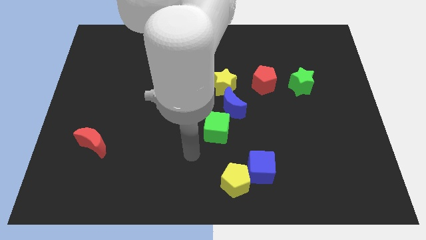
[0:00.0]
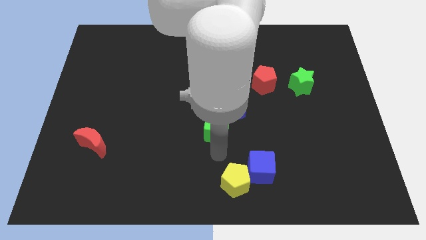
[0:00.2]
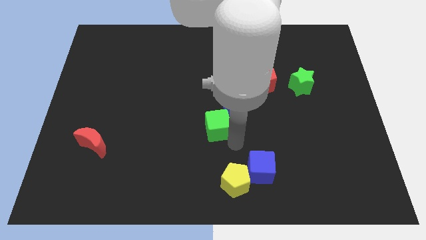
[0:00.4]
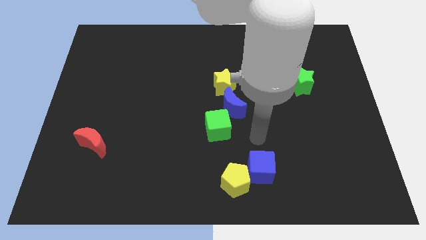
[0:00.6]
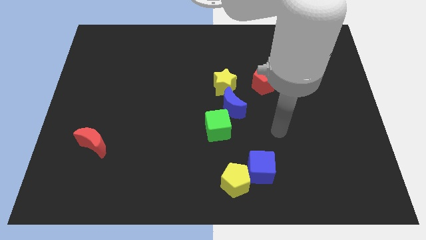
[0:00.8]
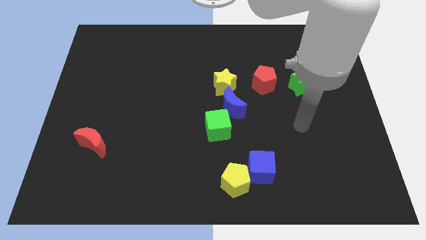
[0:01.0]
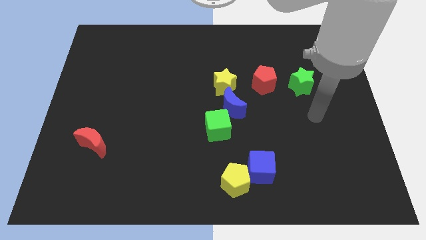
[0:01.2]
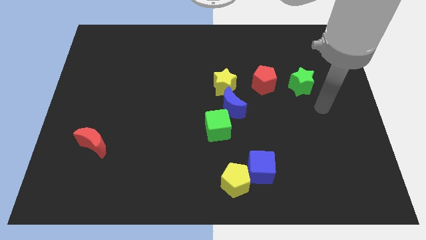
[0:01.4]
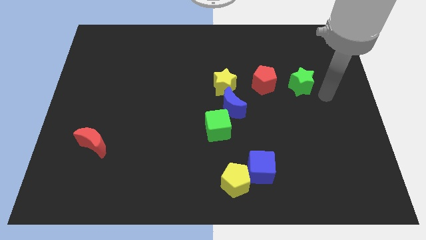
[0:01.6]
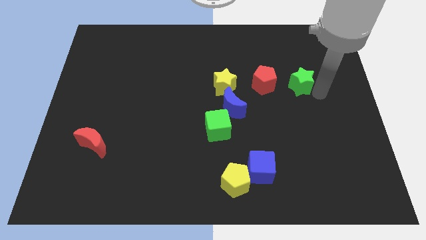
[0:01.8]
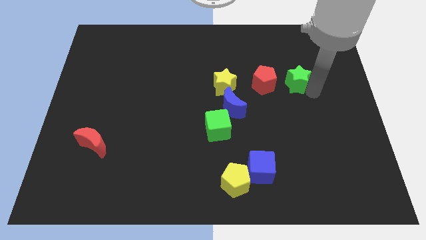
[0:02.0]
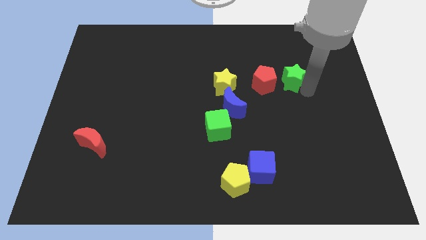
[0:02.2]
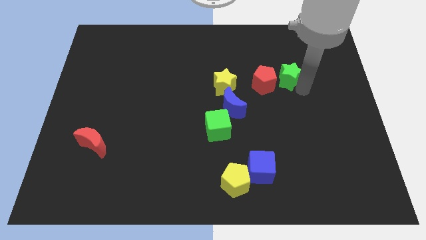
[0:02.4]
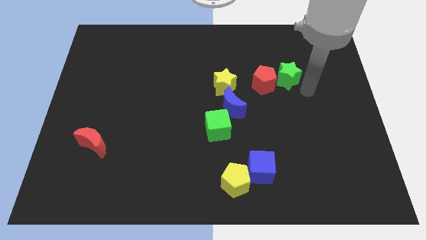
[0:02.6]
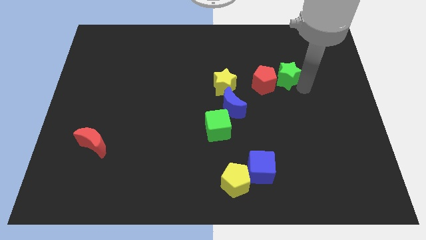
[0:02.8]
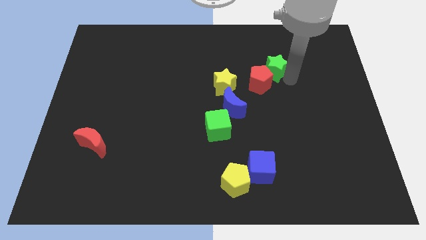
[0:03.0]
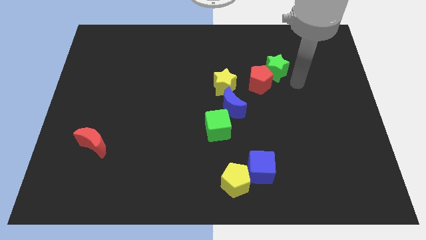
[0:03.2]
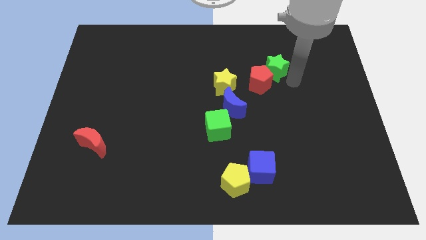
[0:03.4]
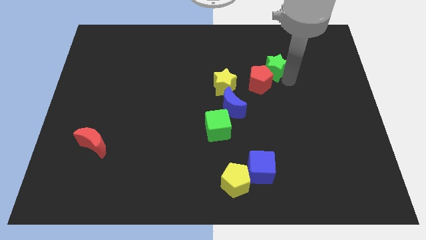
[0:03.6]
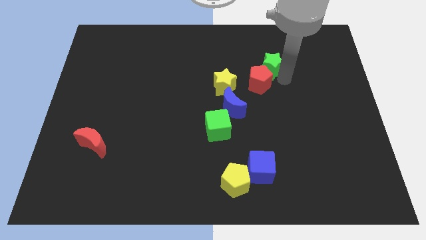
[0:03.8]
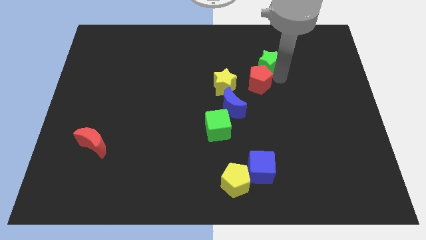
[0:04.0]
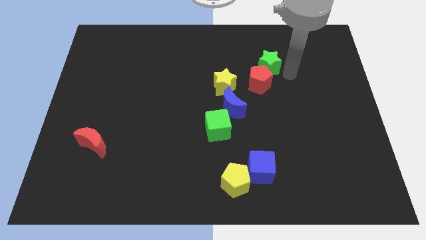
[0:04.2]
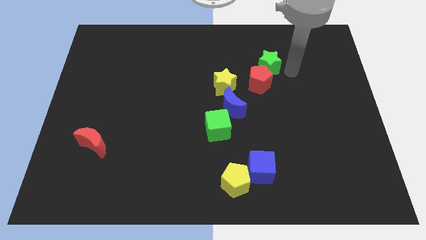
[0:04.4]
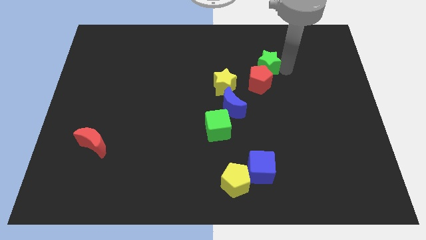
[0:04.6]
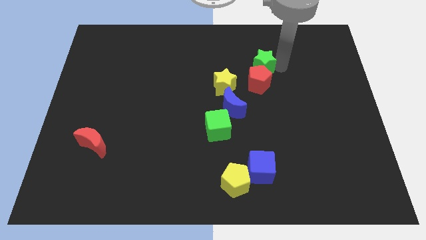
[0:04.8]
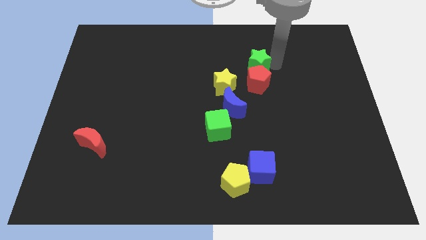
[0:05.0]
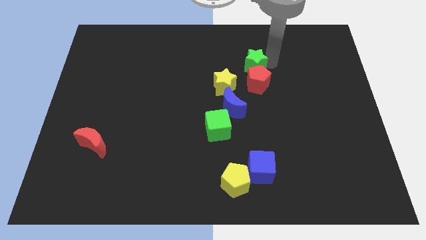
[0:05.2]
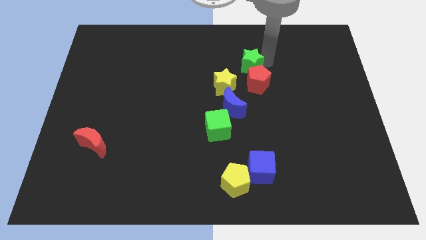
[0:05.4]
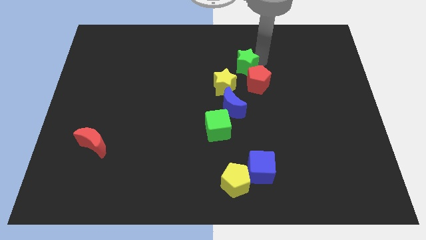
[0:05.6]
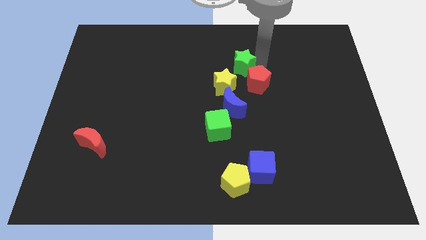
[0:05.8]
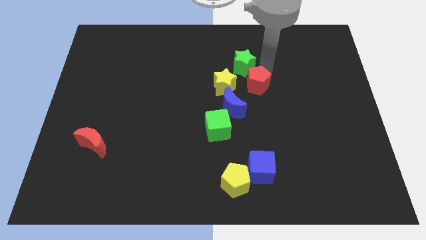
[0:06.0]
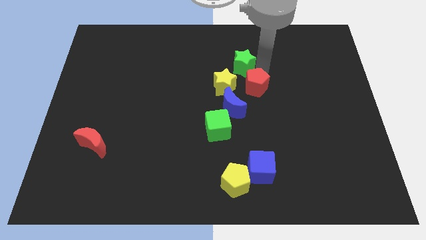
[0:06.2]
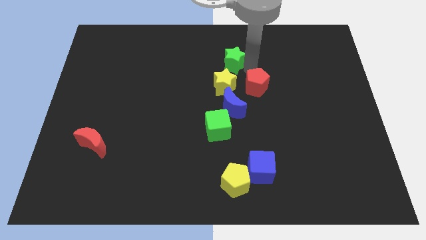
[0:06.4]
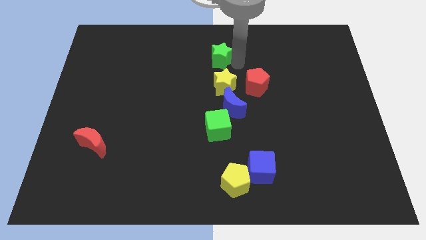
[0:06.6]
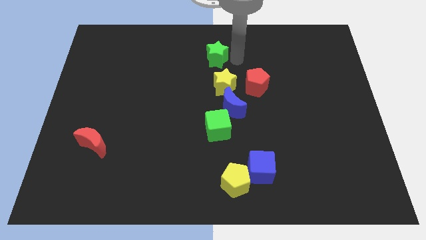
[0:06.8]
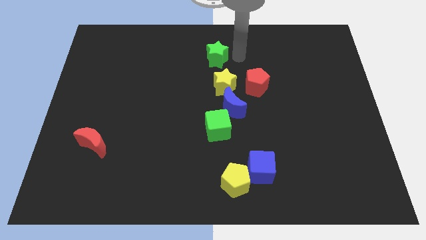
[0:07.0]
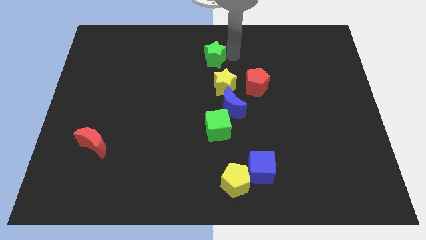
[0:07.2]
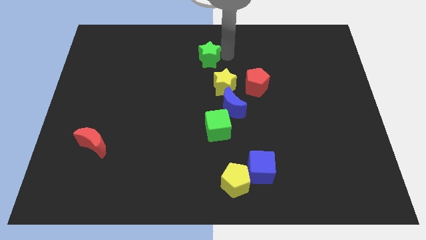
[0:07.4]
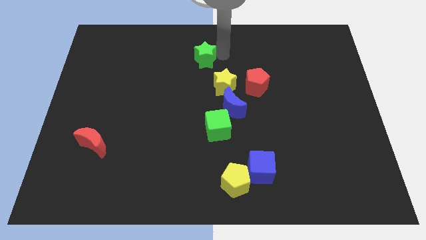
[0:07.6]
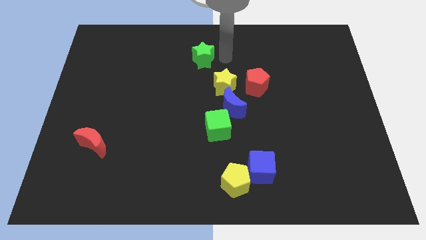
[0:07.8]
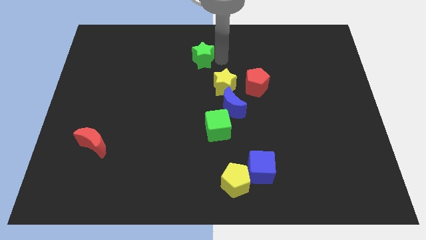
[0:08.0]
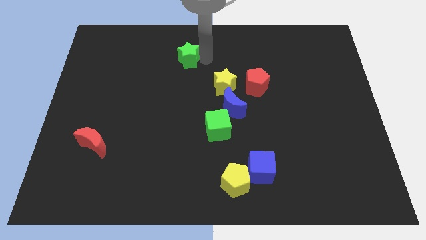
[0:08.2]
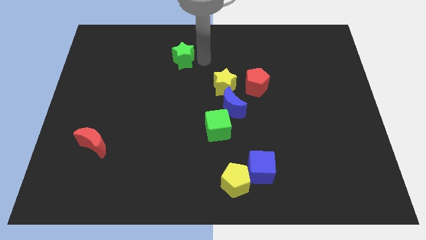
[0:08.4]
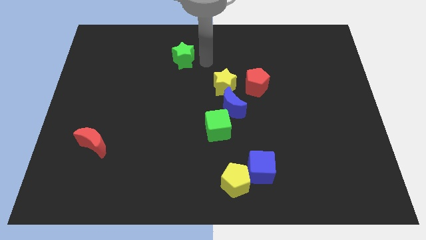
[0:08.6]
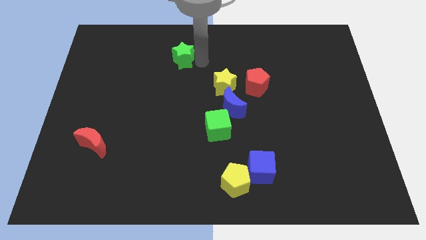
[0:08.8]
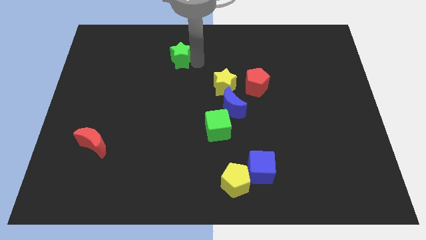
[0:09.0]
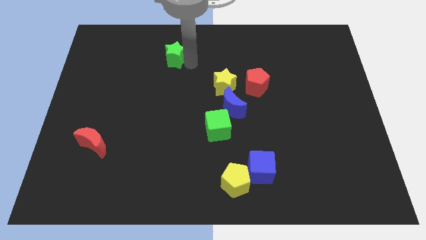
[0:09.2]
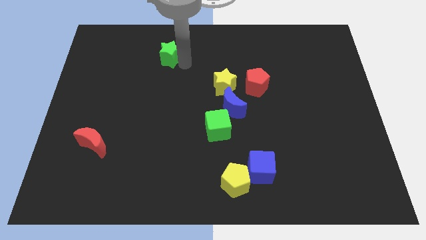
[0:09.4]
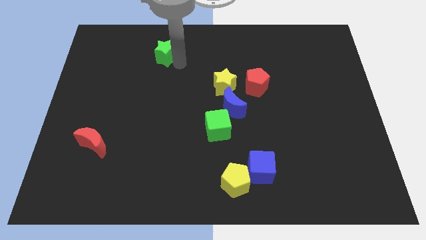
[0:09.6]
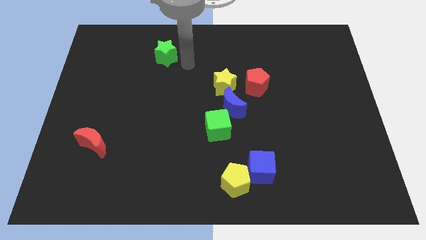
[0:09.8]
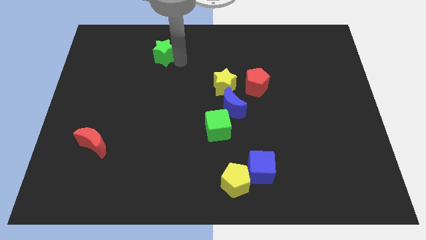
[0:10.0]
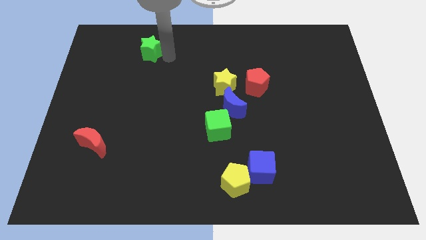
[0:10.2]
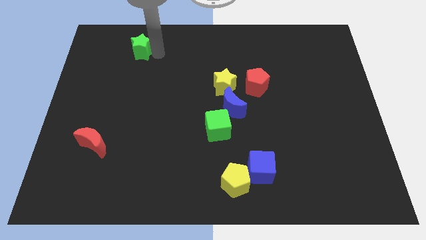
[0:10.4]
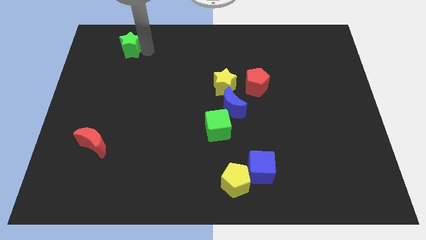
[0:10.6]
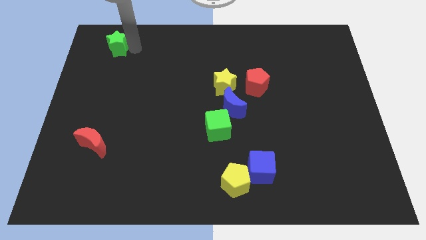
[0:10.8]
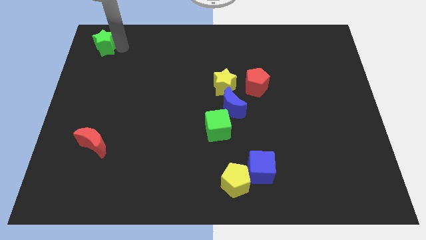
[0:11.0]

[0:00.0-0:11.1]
slide the green star to the top left

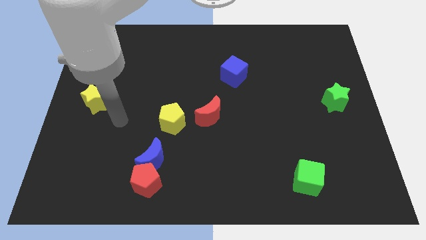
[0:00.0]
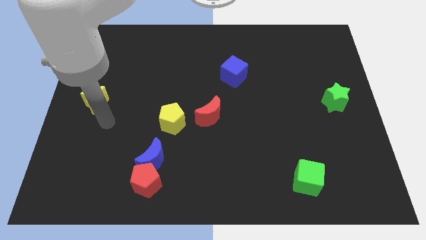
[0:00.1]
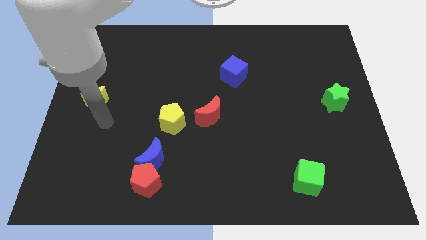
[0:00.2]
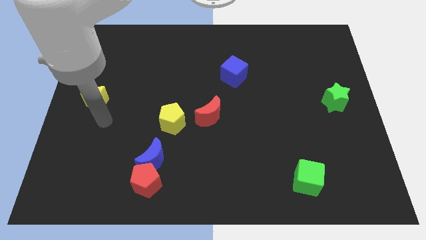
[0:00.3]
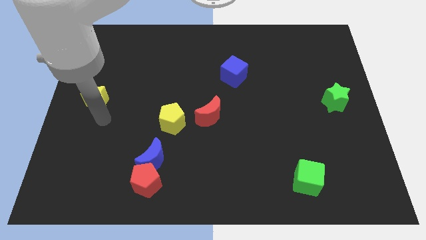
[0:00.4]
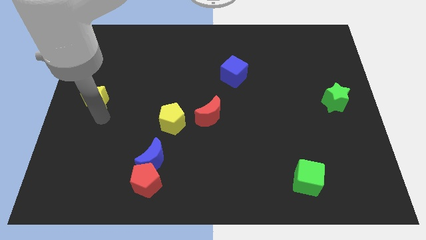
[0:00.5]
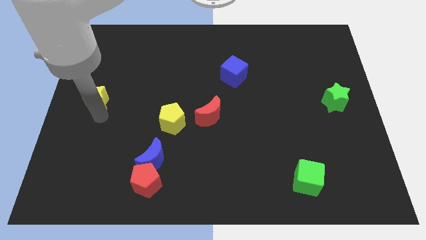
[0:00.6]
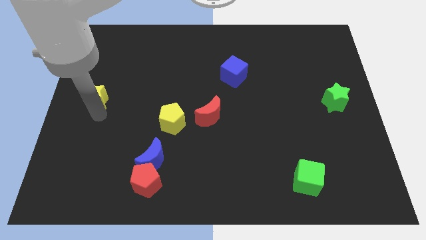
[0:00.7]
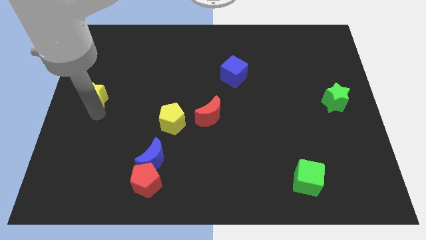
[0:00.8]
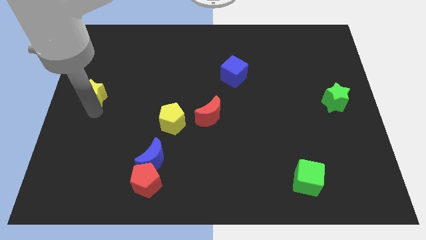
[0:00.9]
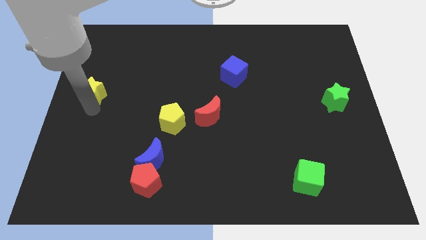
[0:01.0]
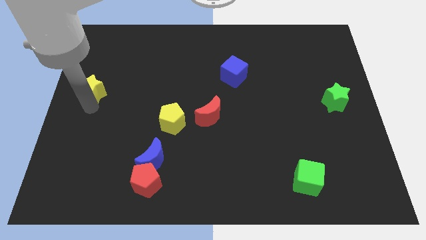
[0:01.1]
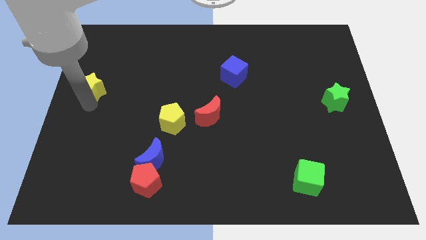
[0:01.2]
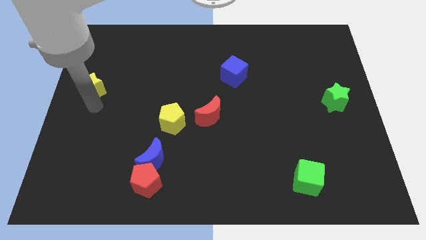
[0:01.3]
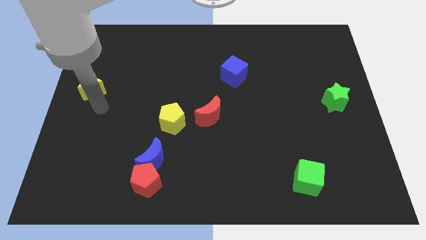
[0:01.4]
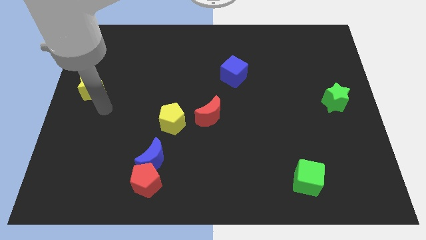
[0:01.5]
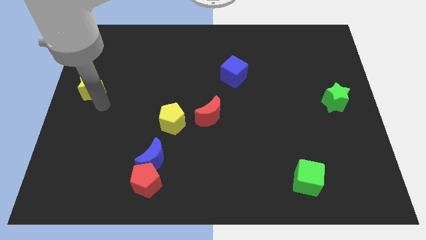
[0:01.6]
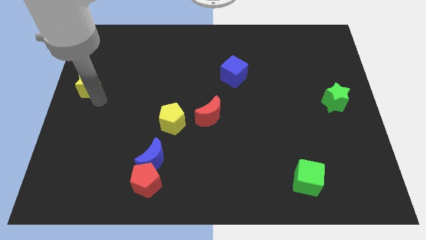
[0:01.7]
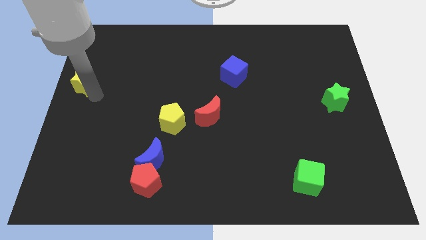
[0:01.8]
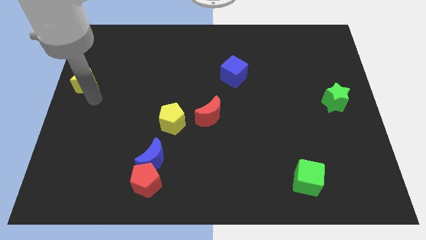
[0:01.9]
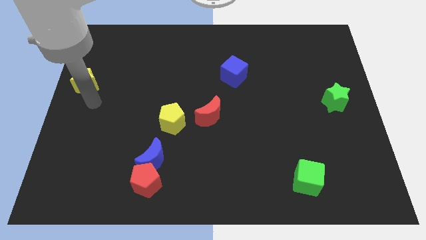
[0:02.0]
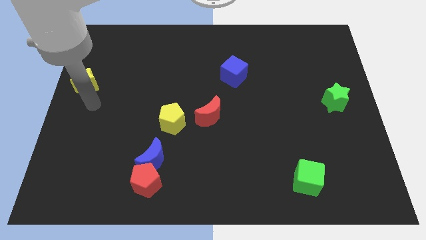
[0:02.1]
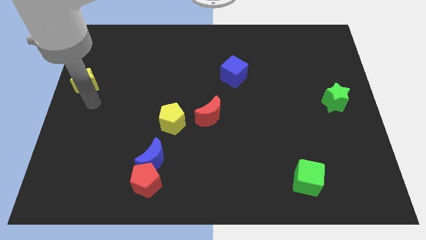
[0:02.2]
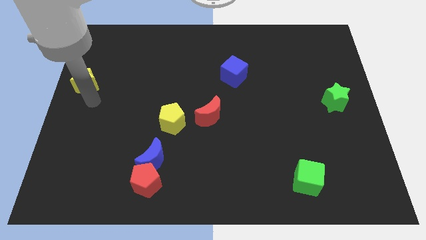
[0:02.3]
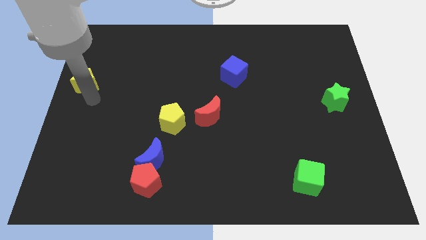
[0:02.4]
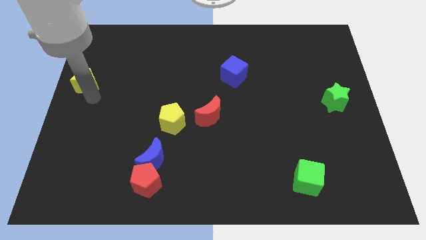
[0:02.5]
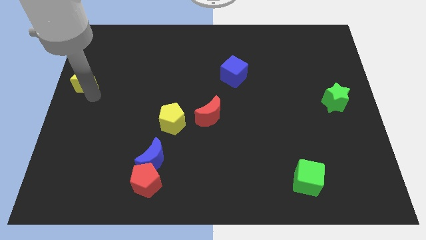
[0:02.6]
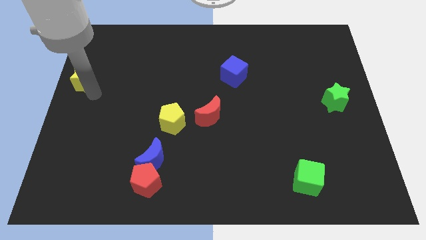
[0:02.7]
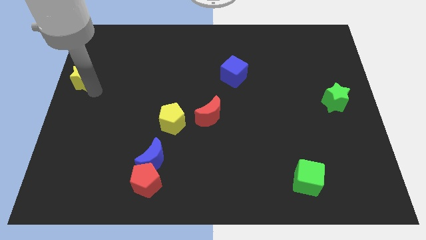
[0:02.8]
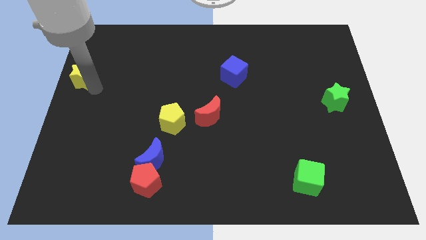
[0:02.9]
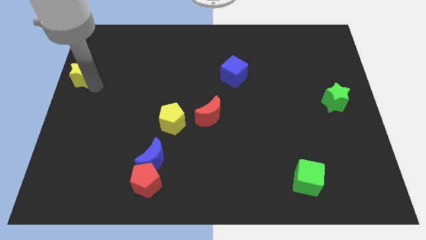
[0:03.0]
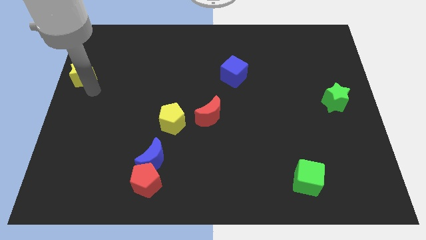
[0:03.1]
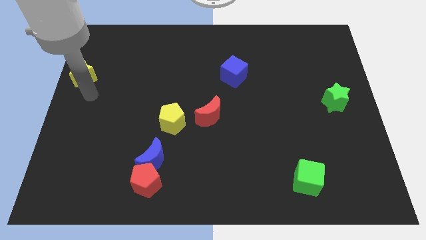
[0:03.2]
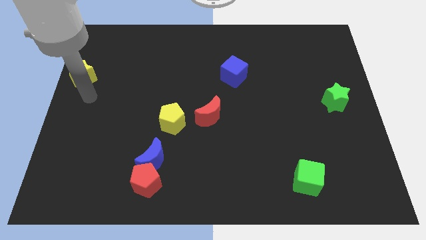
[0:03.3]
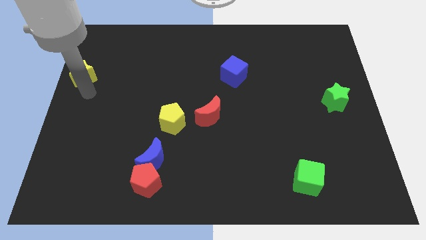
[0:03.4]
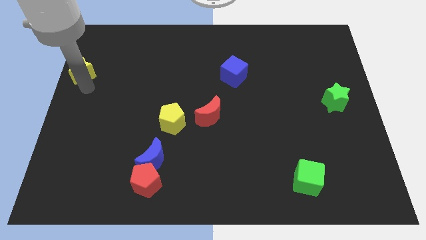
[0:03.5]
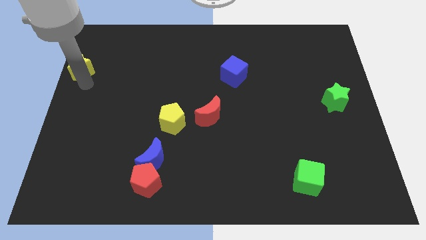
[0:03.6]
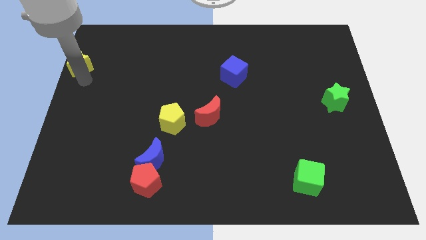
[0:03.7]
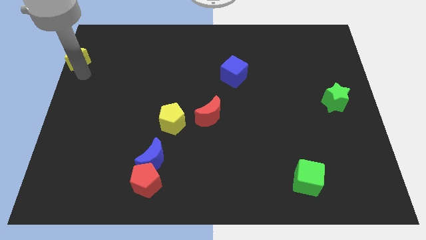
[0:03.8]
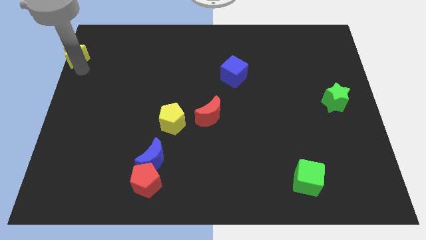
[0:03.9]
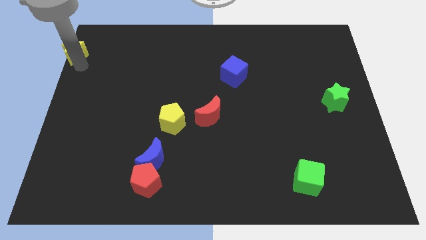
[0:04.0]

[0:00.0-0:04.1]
put the yellow star to the upper left corner
